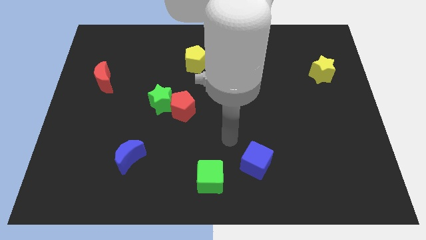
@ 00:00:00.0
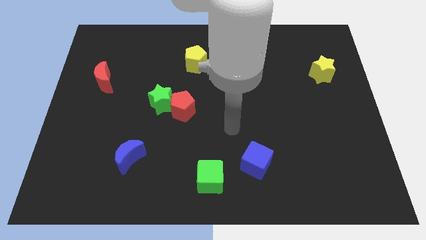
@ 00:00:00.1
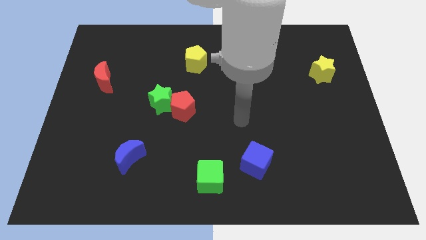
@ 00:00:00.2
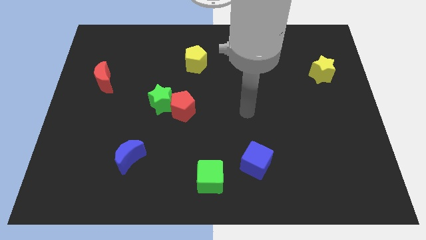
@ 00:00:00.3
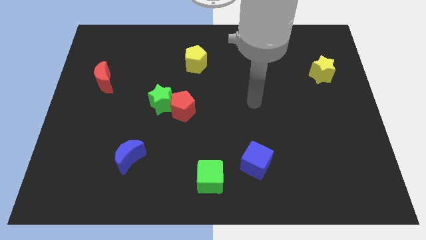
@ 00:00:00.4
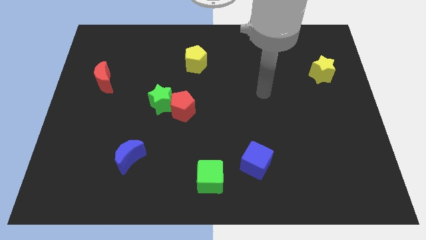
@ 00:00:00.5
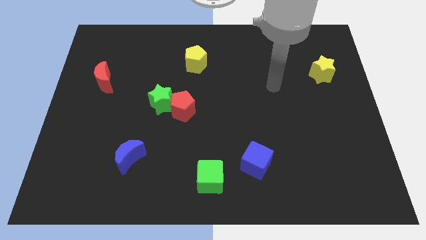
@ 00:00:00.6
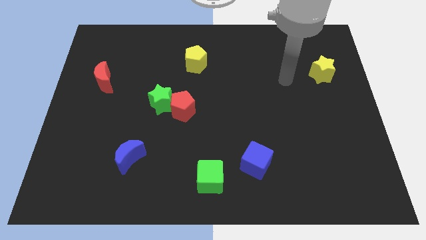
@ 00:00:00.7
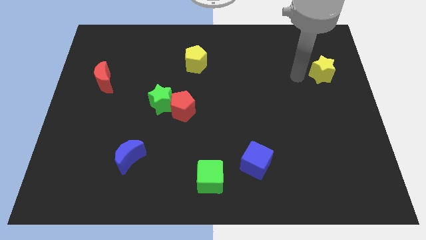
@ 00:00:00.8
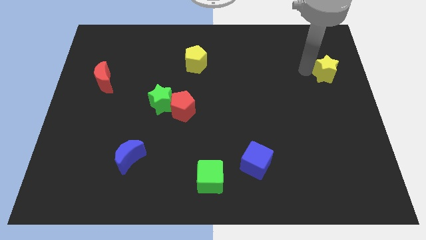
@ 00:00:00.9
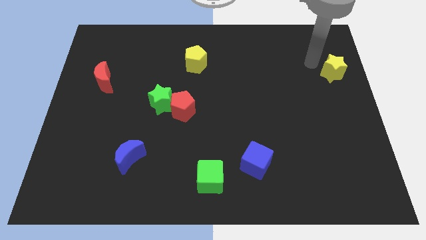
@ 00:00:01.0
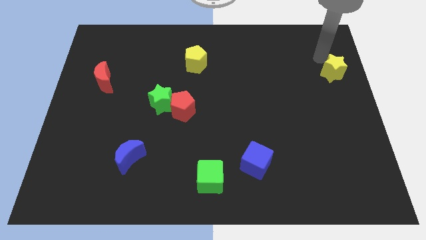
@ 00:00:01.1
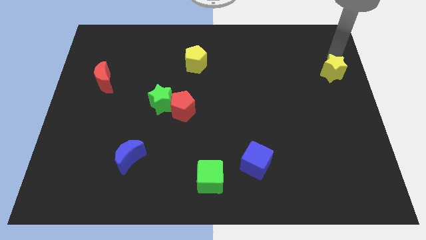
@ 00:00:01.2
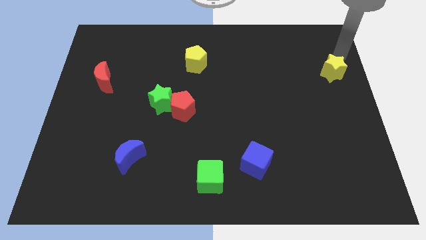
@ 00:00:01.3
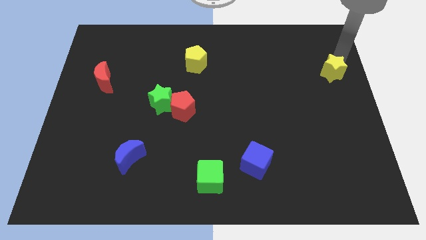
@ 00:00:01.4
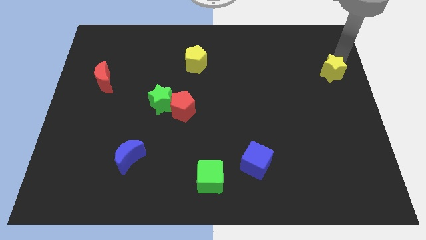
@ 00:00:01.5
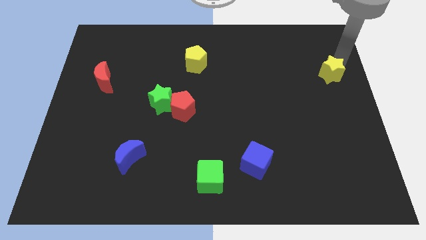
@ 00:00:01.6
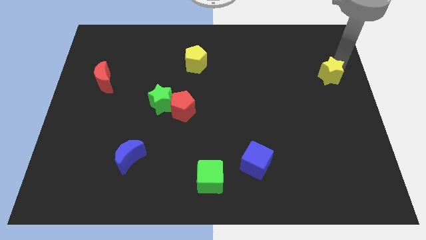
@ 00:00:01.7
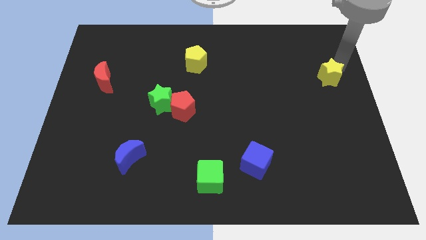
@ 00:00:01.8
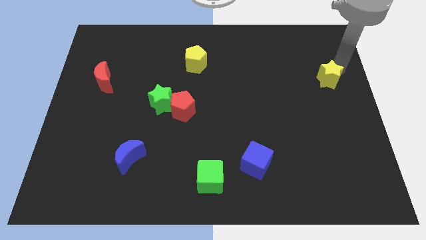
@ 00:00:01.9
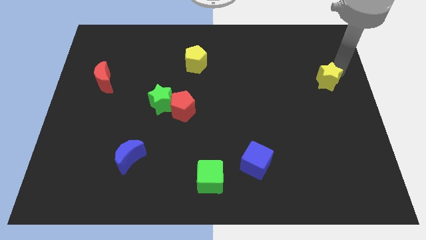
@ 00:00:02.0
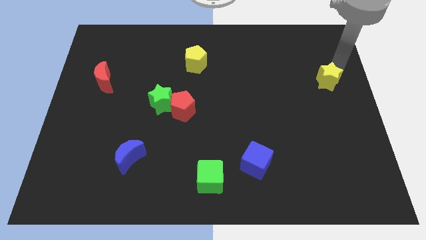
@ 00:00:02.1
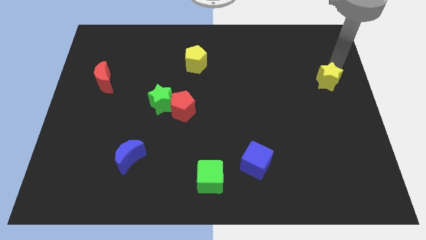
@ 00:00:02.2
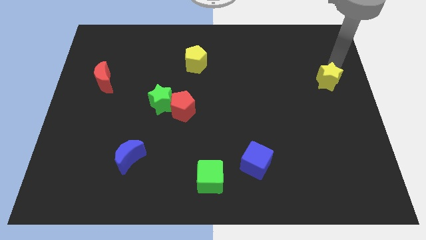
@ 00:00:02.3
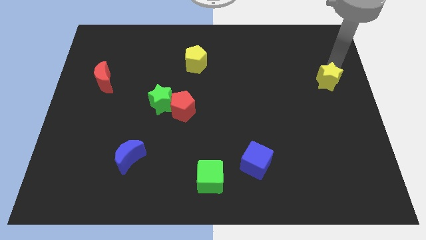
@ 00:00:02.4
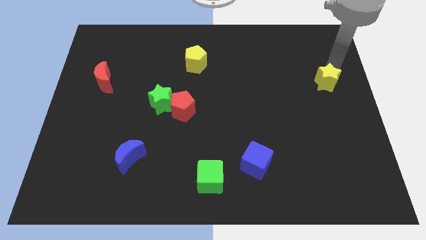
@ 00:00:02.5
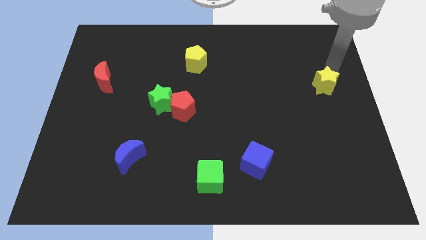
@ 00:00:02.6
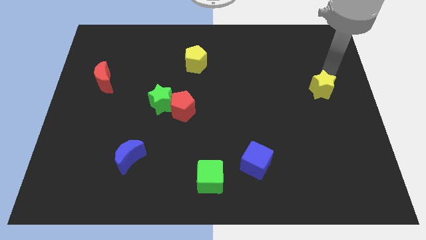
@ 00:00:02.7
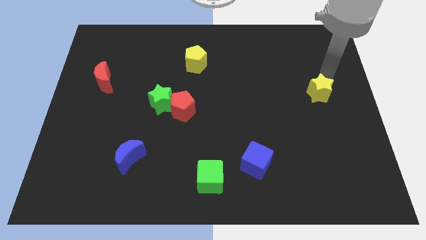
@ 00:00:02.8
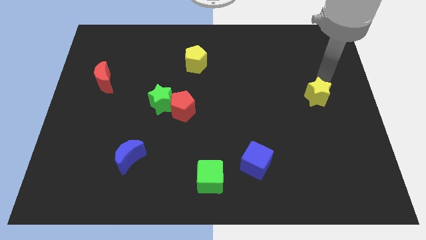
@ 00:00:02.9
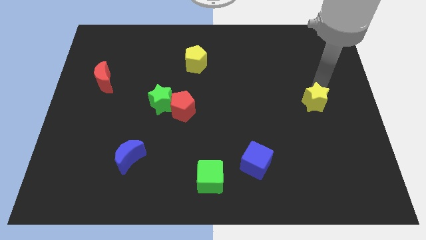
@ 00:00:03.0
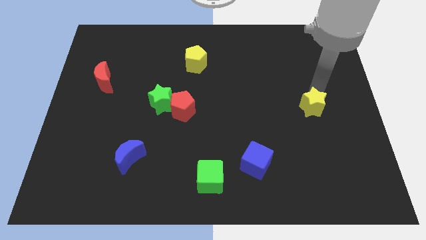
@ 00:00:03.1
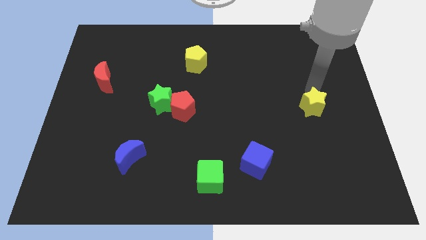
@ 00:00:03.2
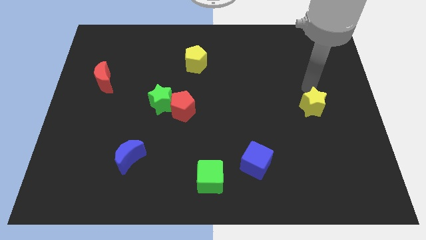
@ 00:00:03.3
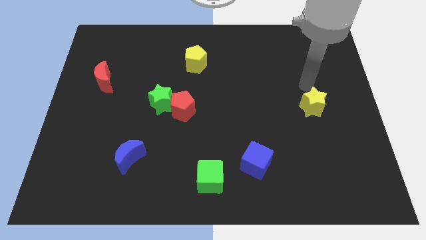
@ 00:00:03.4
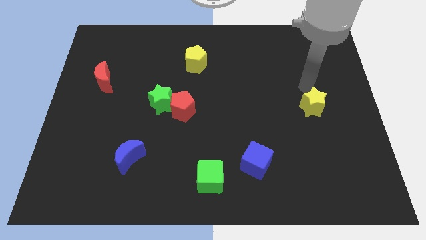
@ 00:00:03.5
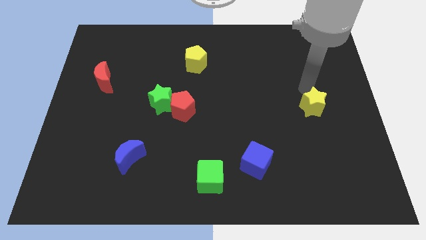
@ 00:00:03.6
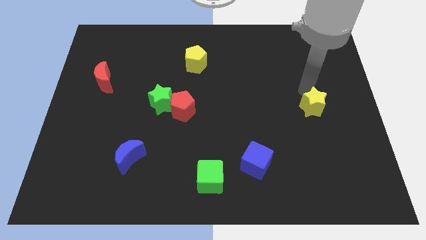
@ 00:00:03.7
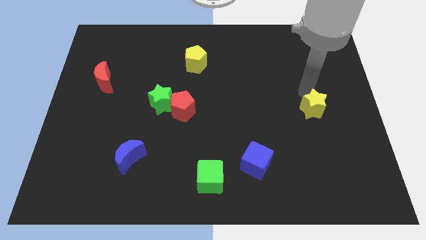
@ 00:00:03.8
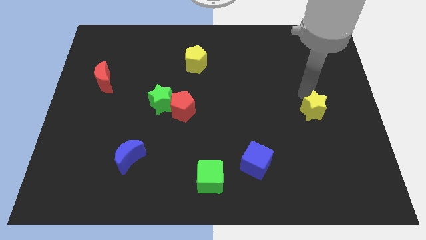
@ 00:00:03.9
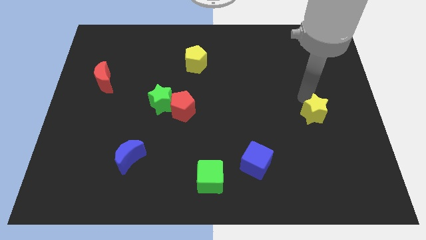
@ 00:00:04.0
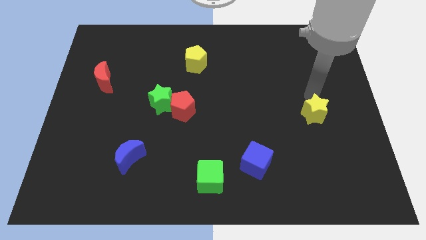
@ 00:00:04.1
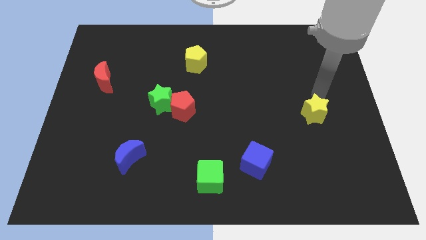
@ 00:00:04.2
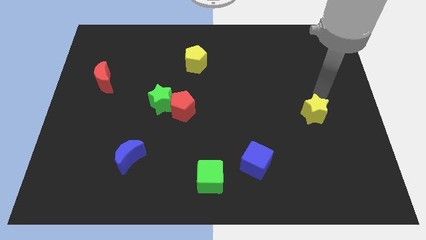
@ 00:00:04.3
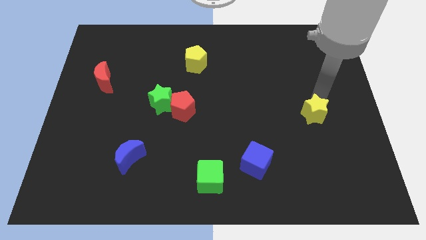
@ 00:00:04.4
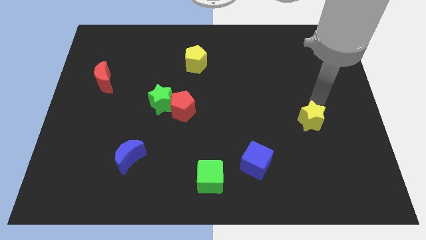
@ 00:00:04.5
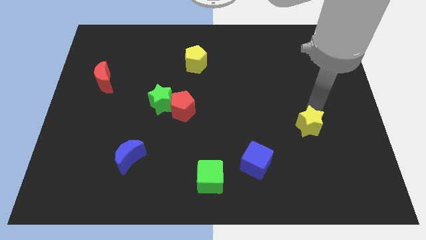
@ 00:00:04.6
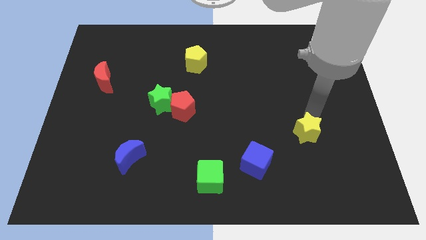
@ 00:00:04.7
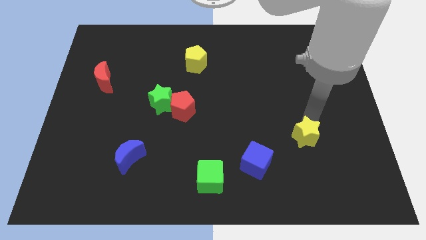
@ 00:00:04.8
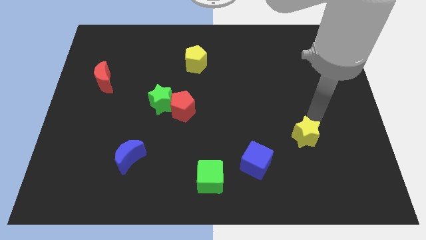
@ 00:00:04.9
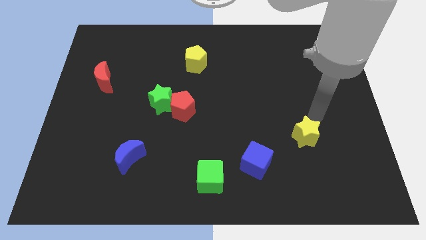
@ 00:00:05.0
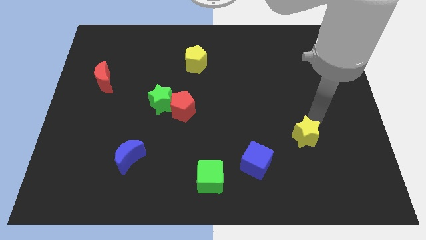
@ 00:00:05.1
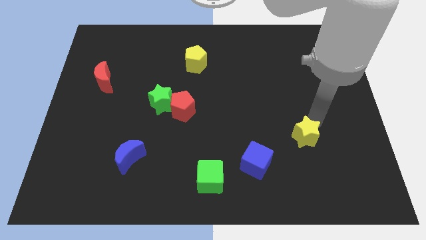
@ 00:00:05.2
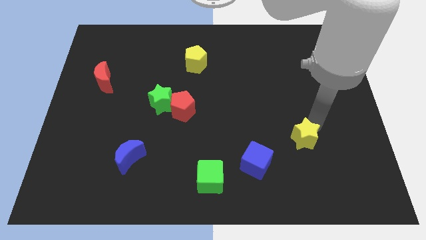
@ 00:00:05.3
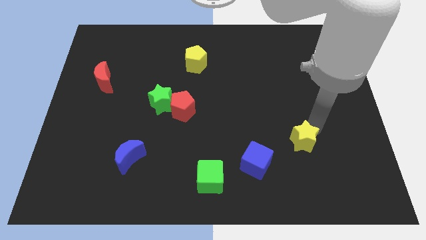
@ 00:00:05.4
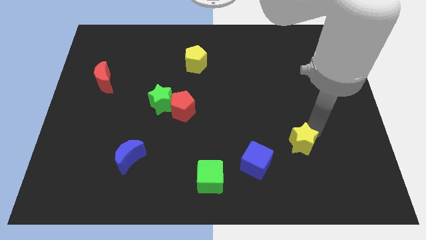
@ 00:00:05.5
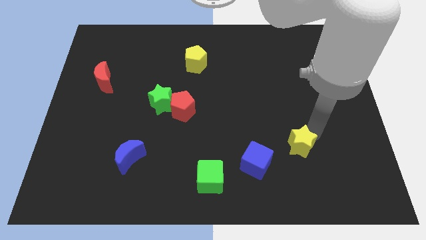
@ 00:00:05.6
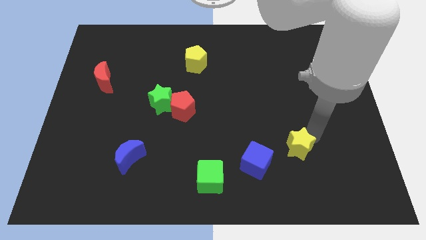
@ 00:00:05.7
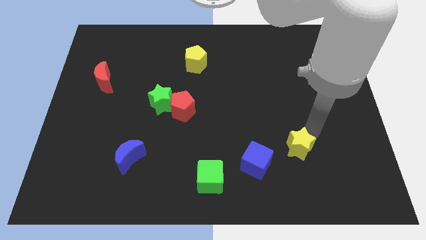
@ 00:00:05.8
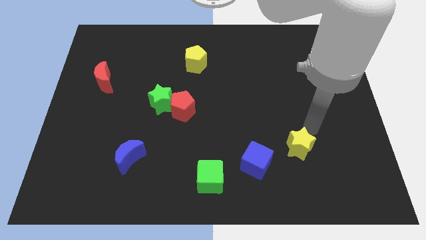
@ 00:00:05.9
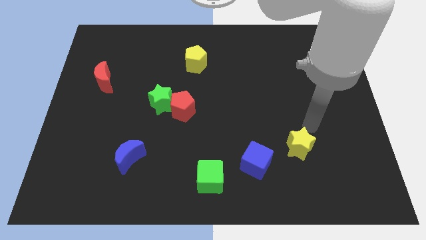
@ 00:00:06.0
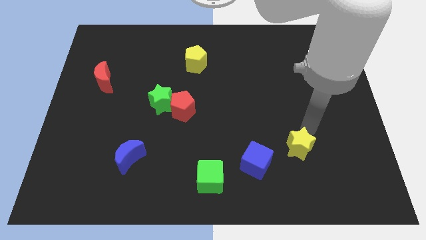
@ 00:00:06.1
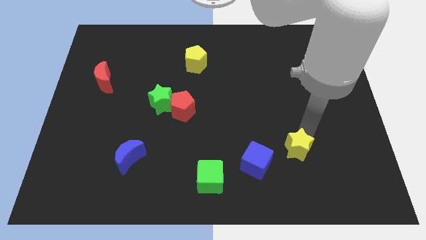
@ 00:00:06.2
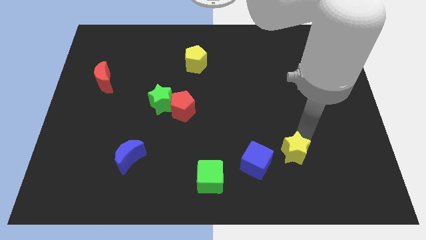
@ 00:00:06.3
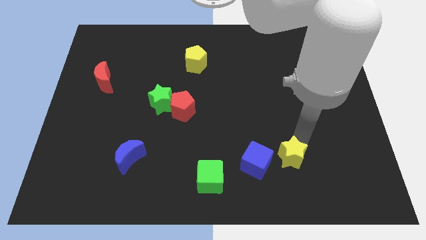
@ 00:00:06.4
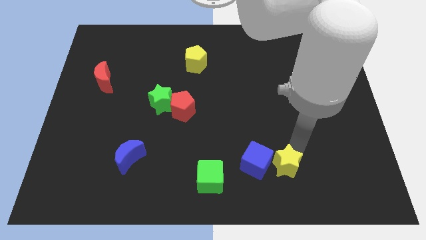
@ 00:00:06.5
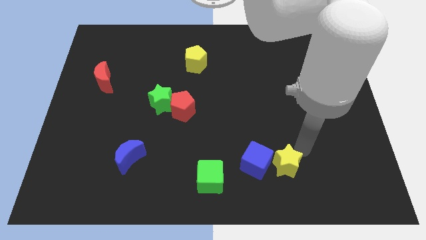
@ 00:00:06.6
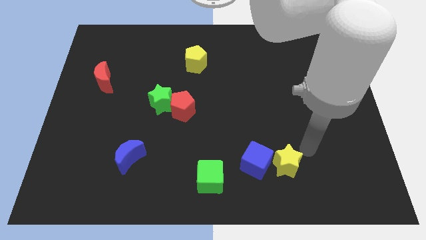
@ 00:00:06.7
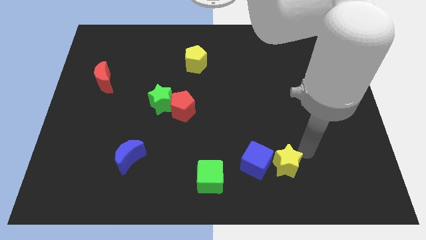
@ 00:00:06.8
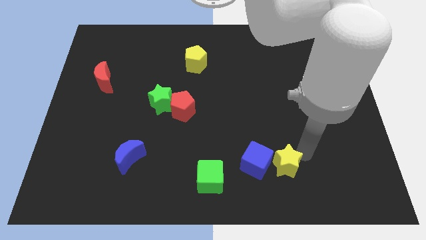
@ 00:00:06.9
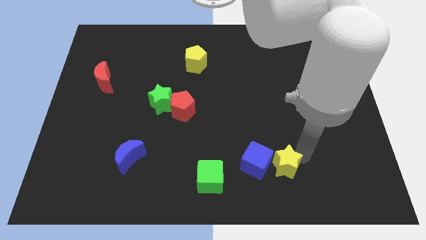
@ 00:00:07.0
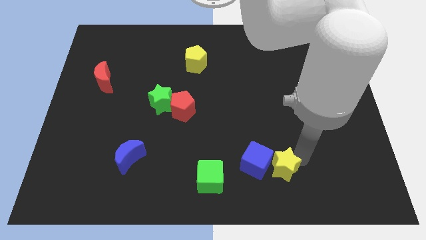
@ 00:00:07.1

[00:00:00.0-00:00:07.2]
push the yellow star just right of the green cube
